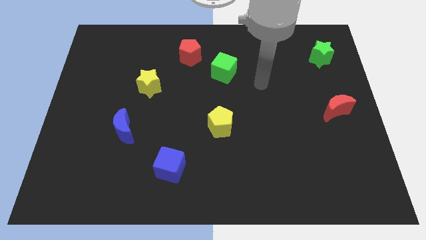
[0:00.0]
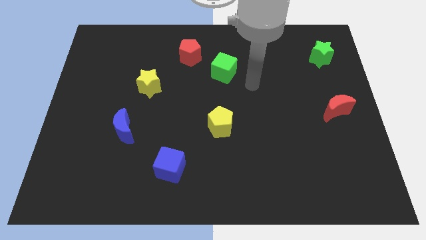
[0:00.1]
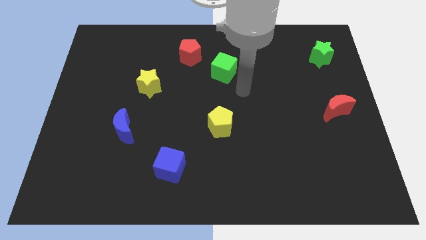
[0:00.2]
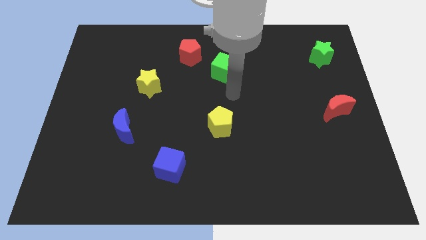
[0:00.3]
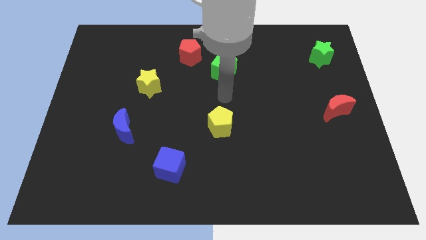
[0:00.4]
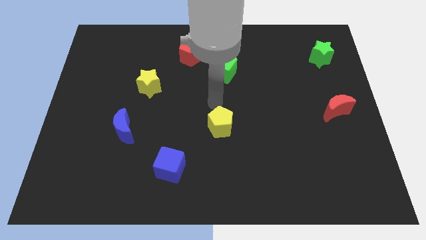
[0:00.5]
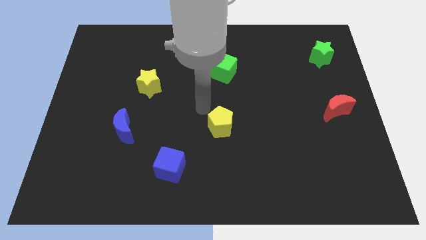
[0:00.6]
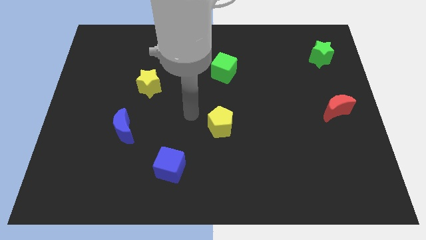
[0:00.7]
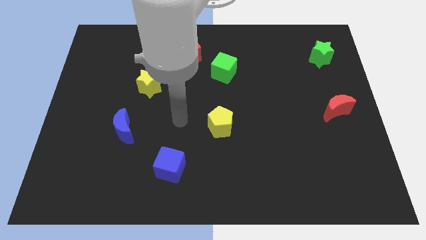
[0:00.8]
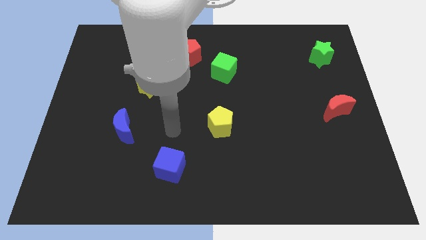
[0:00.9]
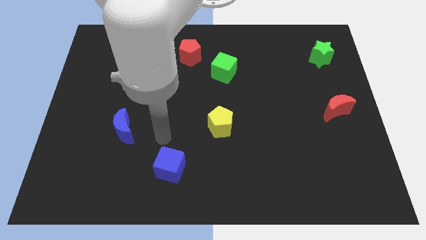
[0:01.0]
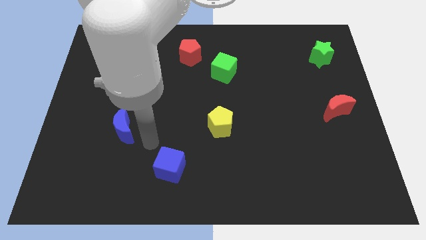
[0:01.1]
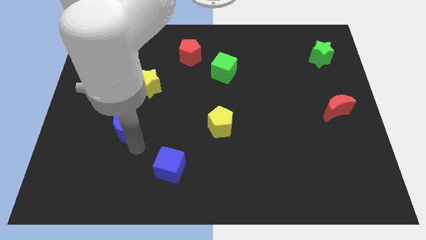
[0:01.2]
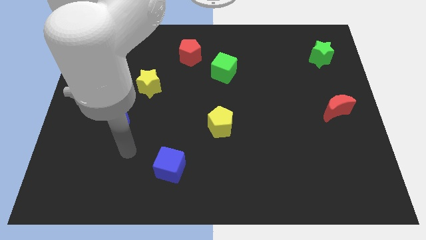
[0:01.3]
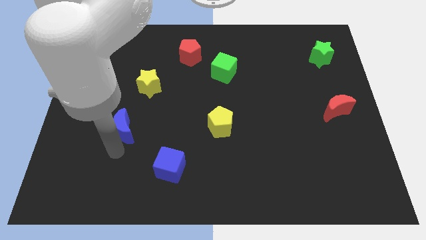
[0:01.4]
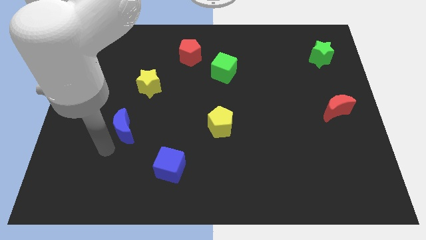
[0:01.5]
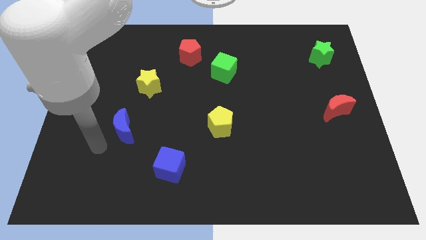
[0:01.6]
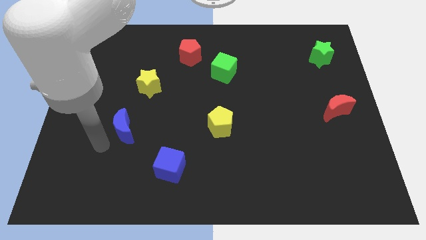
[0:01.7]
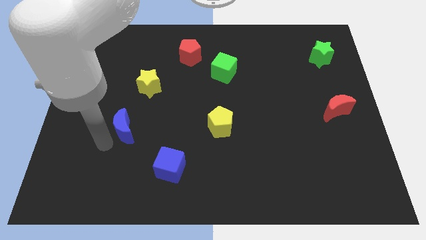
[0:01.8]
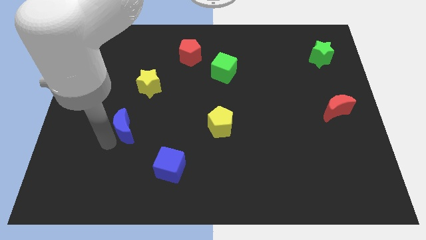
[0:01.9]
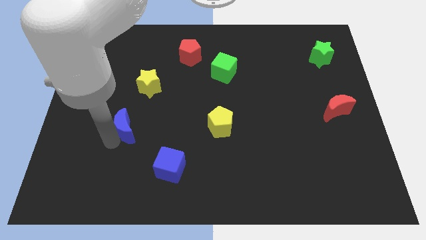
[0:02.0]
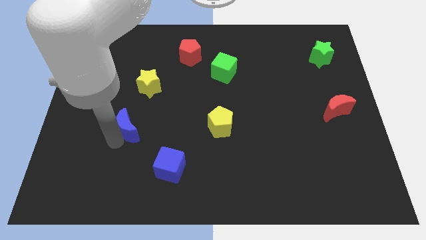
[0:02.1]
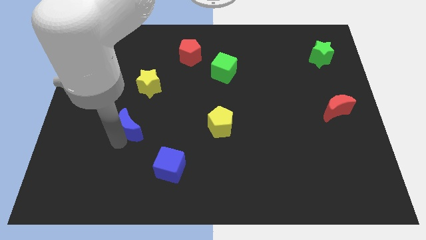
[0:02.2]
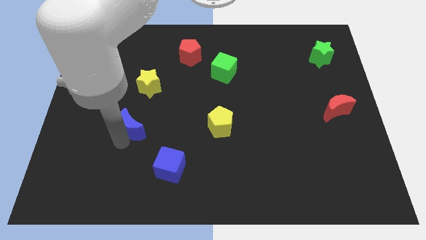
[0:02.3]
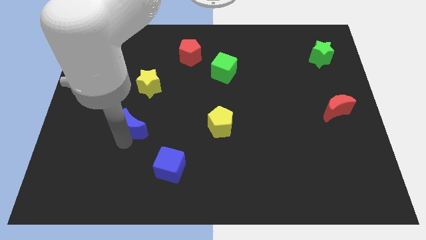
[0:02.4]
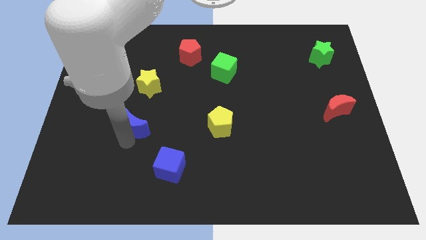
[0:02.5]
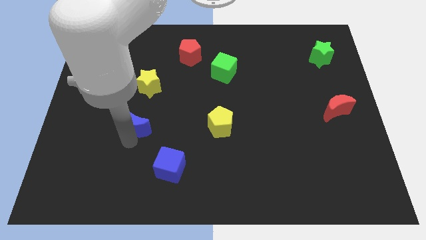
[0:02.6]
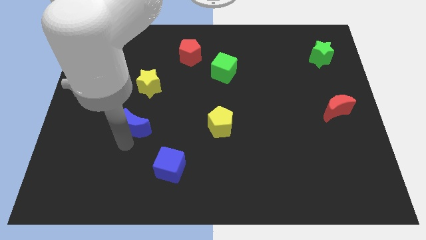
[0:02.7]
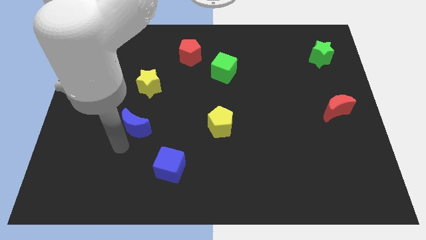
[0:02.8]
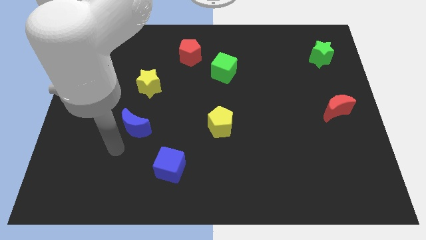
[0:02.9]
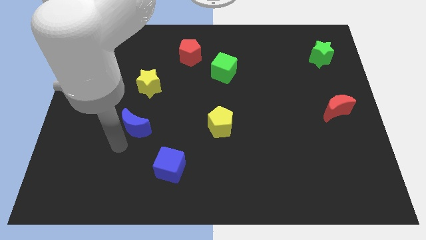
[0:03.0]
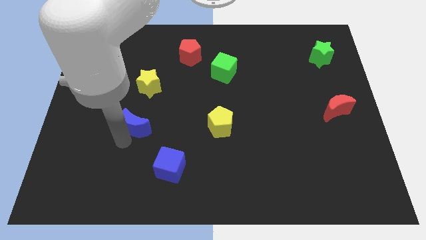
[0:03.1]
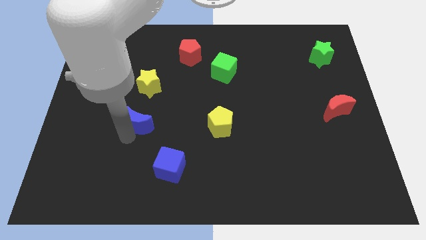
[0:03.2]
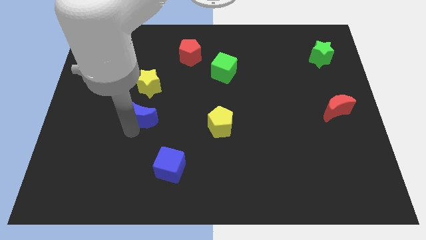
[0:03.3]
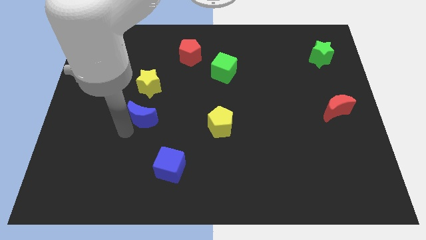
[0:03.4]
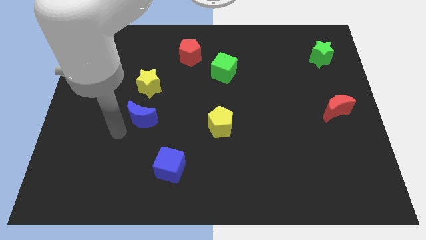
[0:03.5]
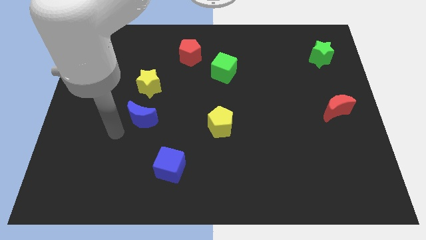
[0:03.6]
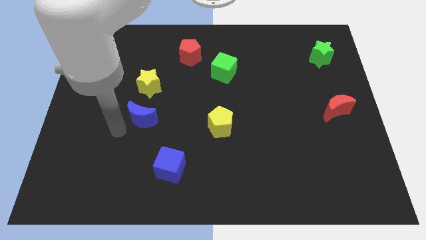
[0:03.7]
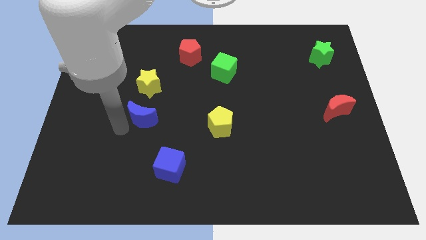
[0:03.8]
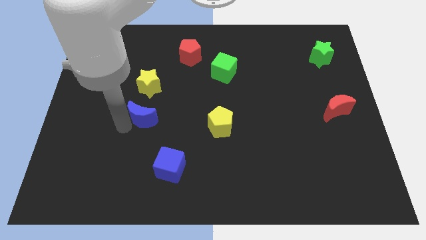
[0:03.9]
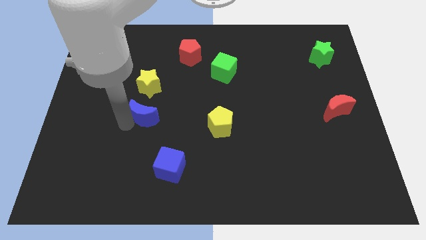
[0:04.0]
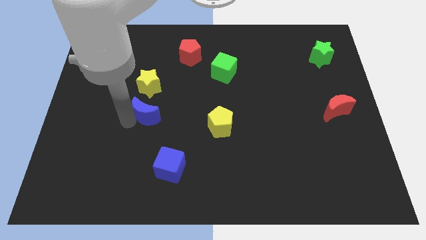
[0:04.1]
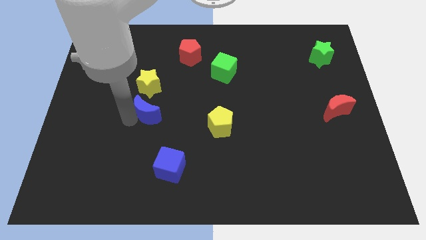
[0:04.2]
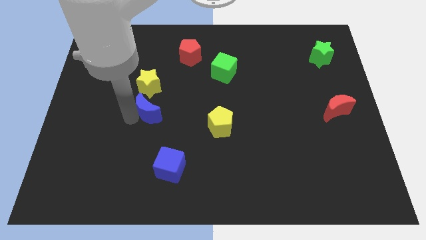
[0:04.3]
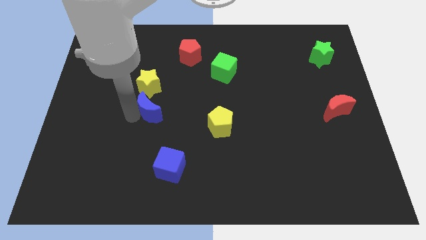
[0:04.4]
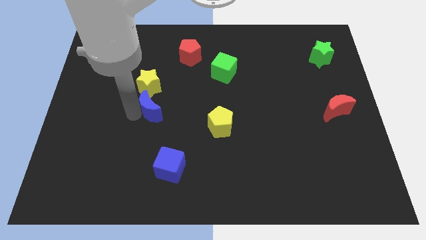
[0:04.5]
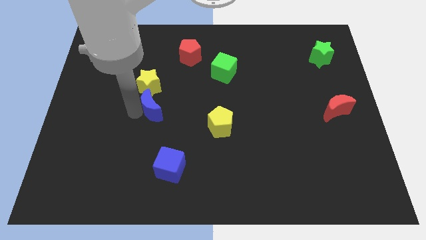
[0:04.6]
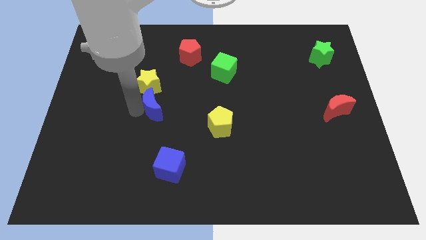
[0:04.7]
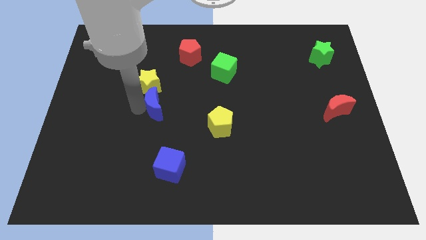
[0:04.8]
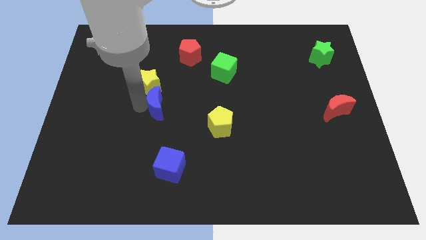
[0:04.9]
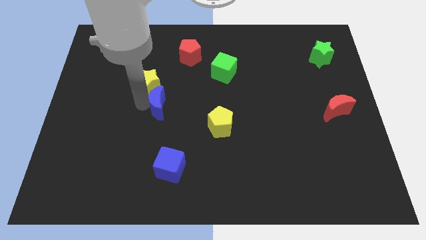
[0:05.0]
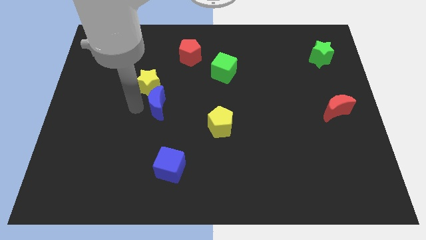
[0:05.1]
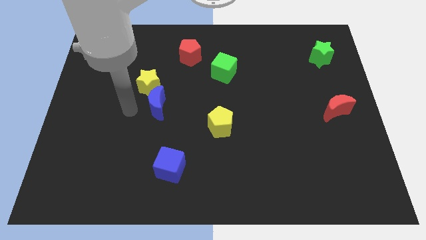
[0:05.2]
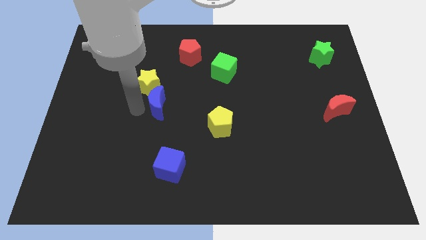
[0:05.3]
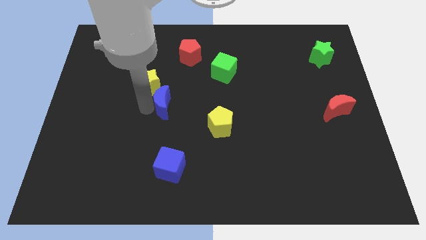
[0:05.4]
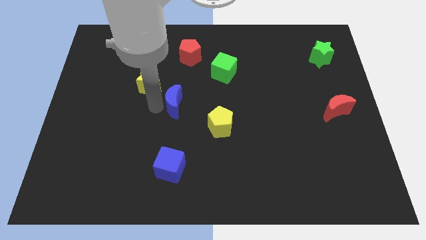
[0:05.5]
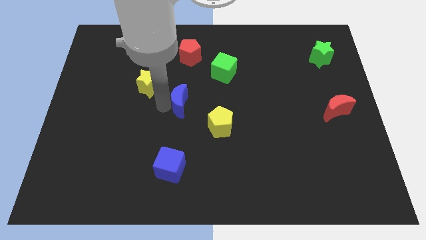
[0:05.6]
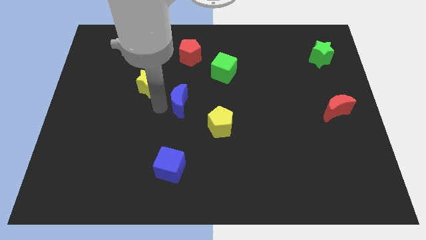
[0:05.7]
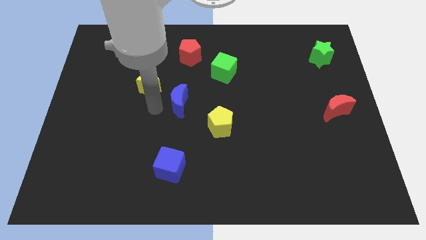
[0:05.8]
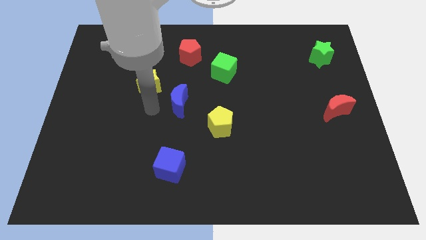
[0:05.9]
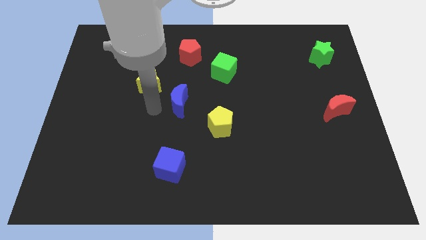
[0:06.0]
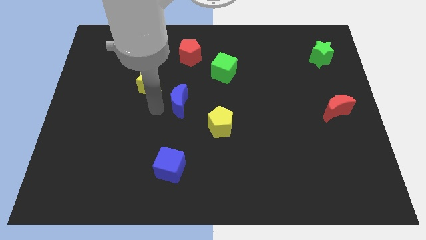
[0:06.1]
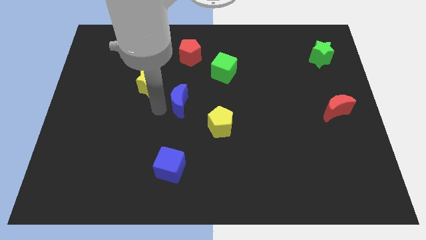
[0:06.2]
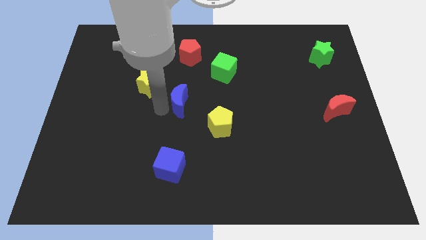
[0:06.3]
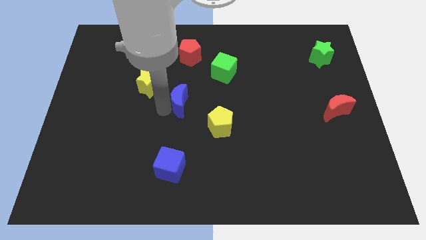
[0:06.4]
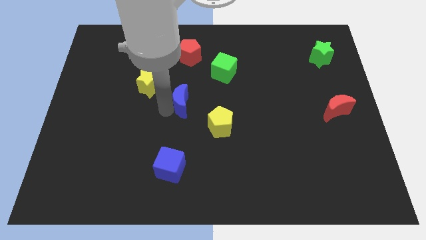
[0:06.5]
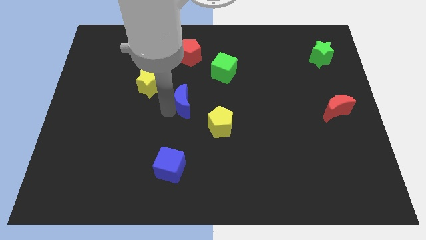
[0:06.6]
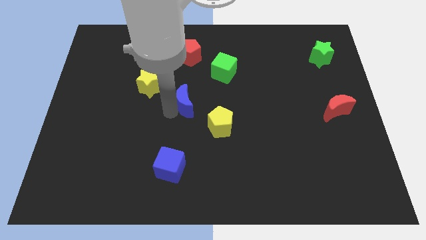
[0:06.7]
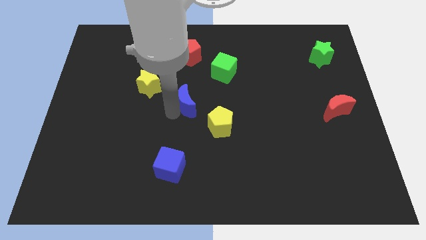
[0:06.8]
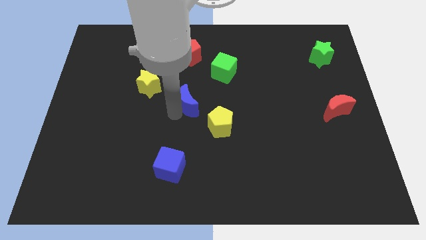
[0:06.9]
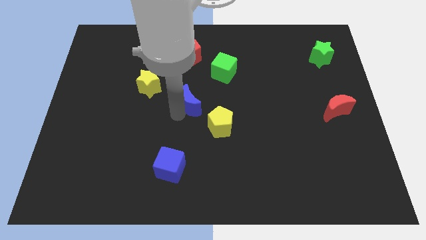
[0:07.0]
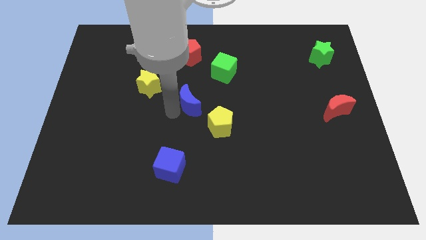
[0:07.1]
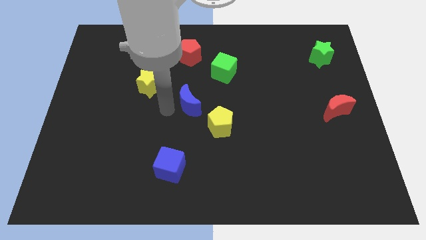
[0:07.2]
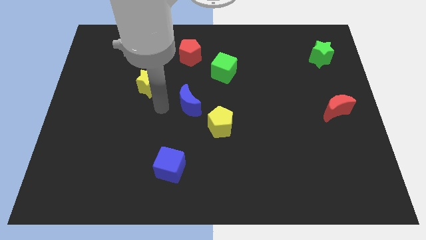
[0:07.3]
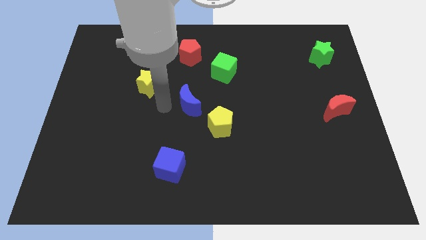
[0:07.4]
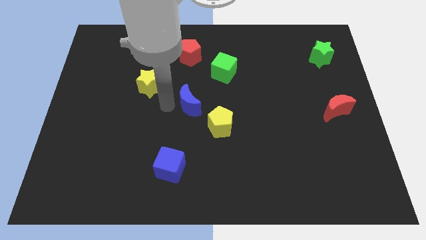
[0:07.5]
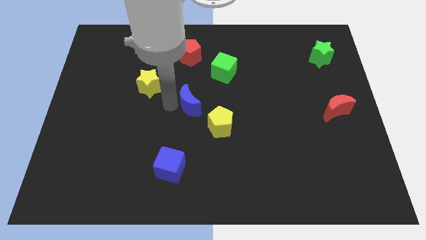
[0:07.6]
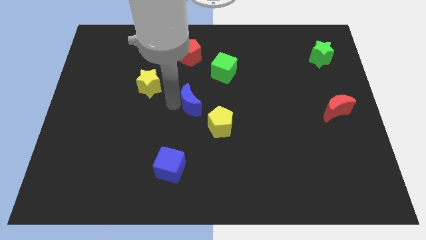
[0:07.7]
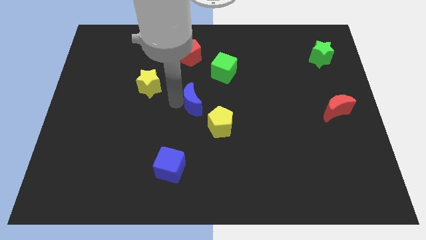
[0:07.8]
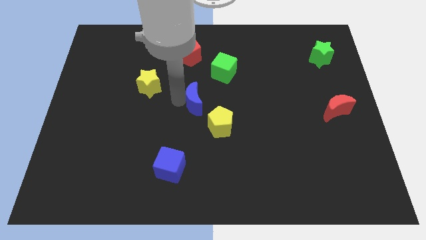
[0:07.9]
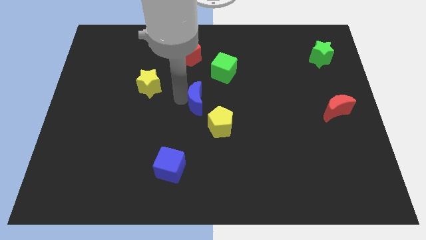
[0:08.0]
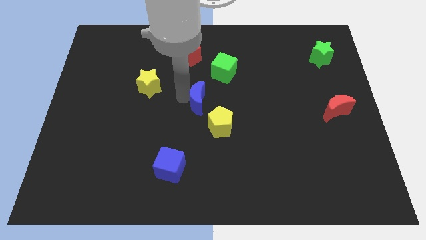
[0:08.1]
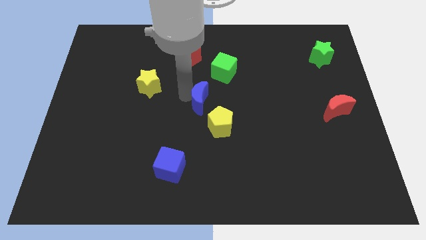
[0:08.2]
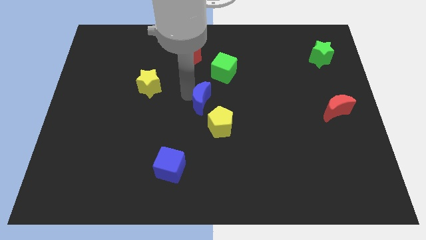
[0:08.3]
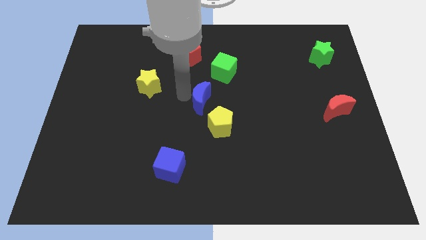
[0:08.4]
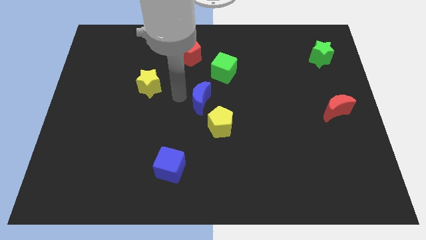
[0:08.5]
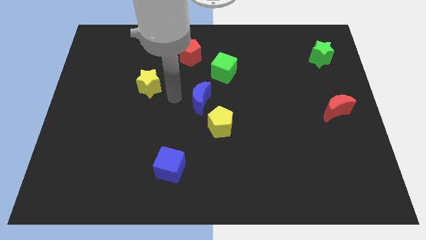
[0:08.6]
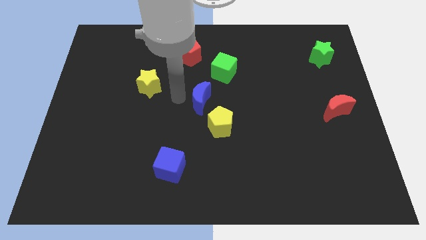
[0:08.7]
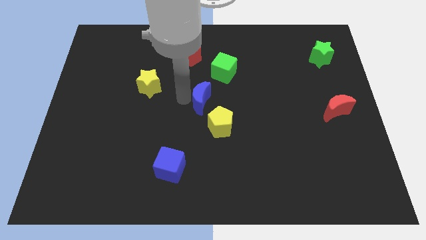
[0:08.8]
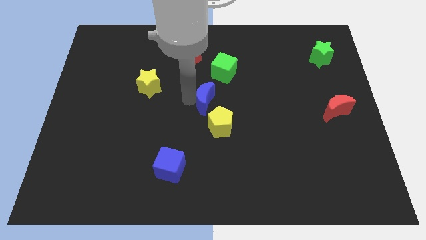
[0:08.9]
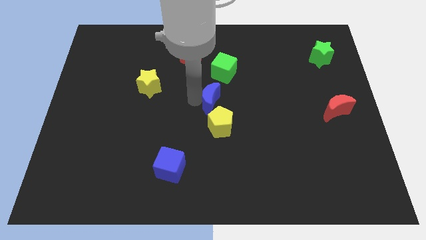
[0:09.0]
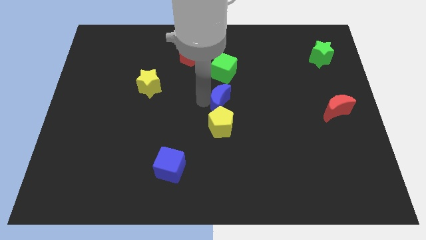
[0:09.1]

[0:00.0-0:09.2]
push the blue moon diagonally up and to the right of the yellow pentagon
